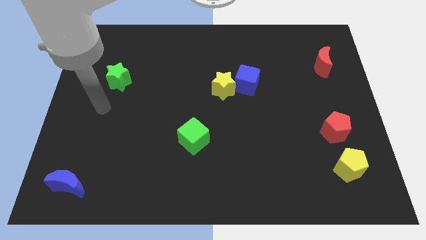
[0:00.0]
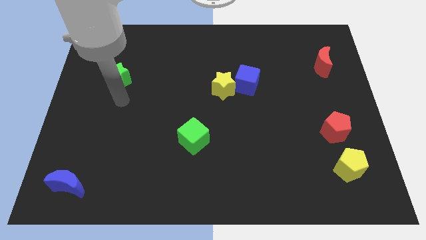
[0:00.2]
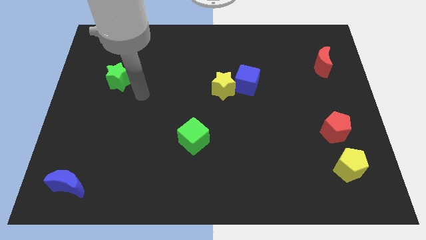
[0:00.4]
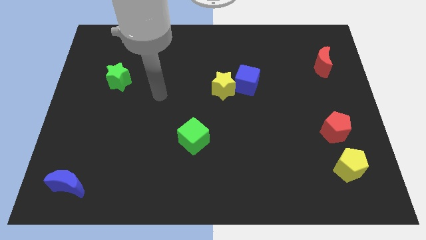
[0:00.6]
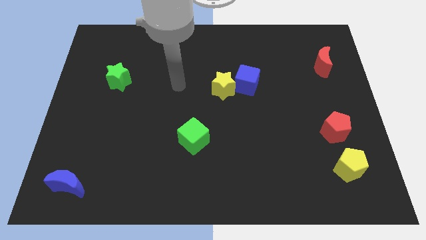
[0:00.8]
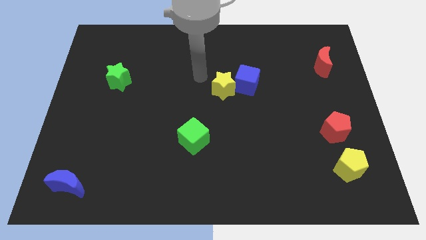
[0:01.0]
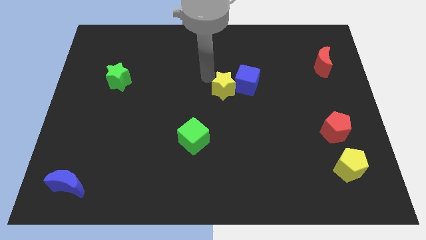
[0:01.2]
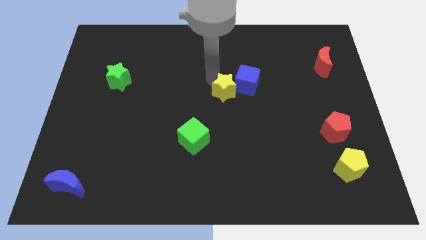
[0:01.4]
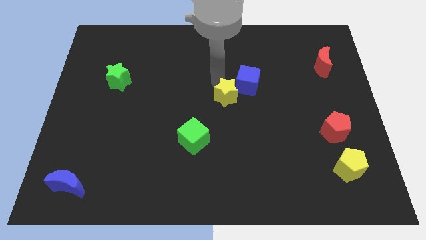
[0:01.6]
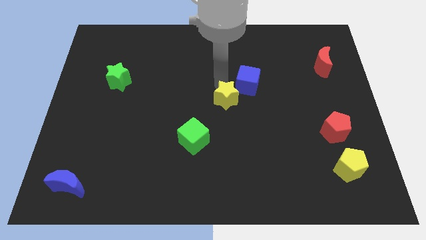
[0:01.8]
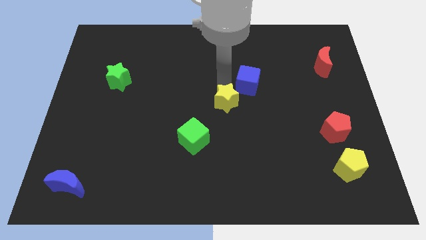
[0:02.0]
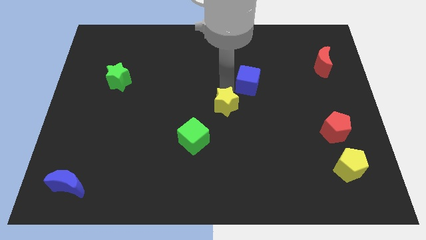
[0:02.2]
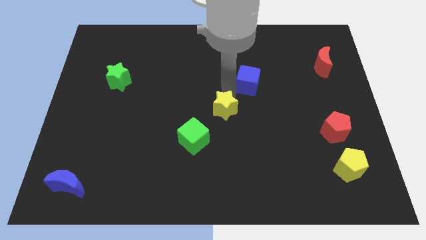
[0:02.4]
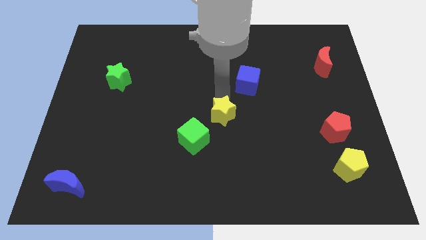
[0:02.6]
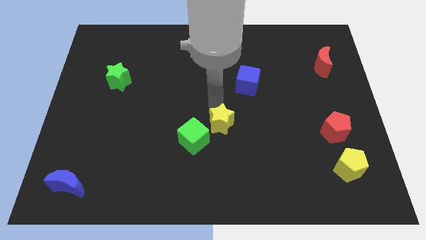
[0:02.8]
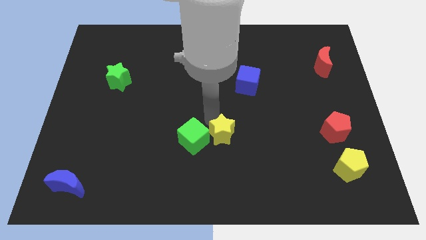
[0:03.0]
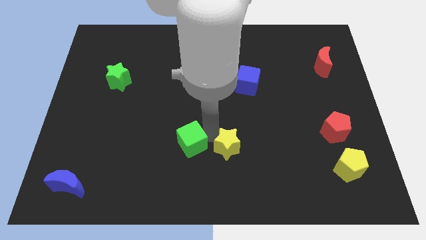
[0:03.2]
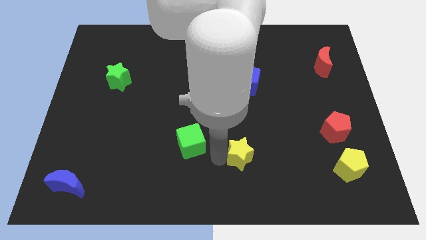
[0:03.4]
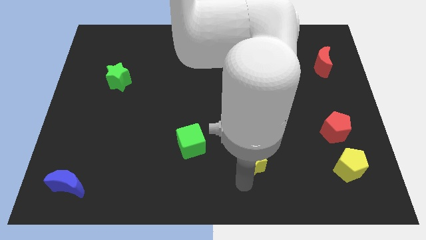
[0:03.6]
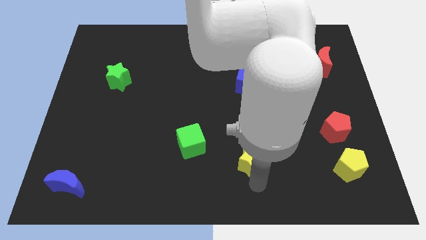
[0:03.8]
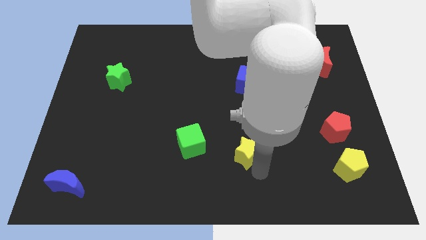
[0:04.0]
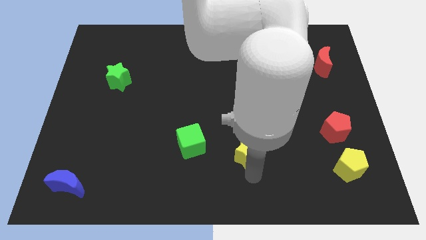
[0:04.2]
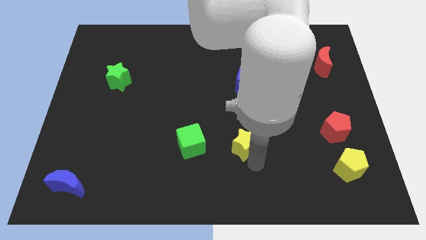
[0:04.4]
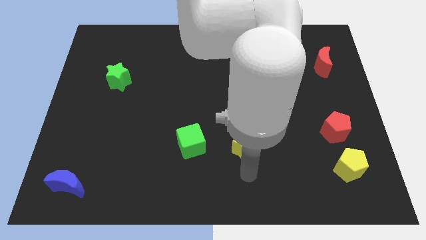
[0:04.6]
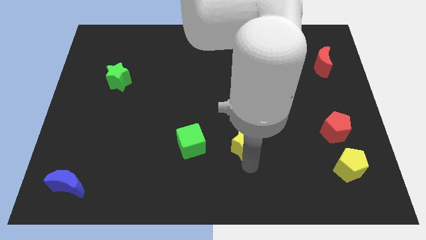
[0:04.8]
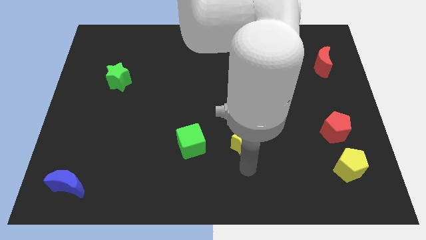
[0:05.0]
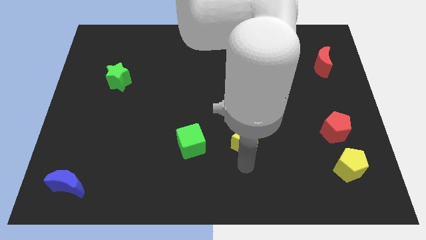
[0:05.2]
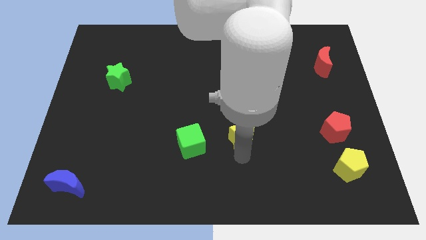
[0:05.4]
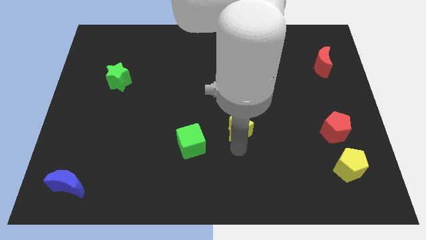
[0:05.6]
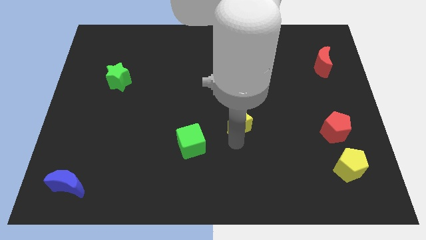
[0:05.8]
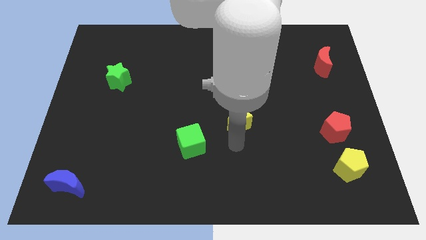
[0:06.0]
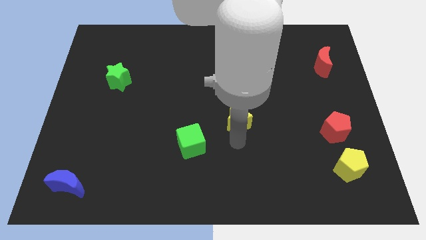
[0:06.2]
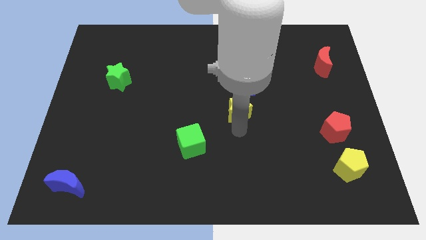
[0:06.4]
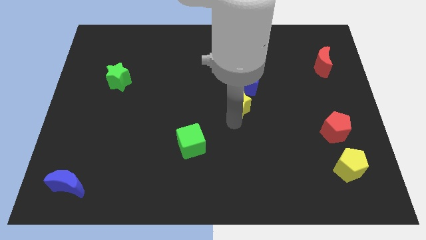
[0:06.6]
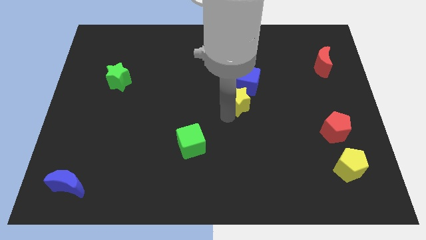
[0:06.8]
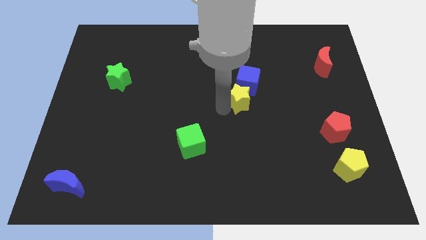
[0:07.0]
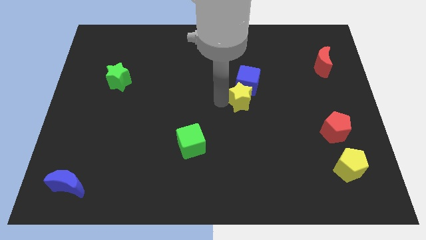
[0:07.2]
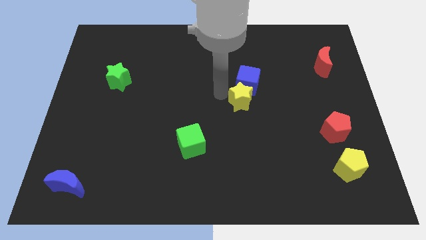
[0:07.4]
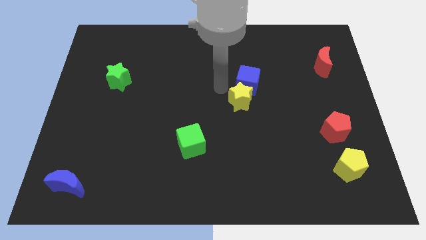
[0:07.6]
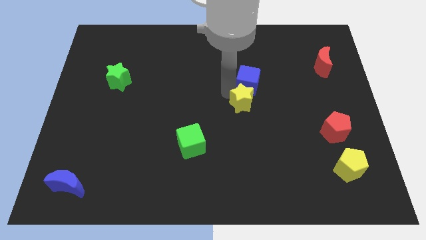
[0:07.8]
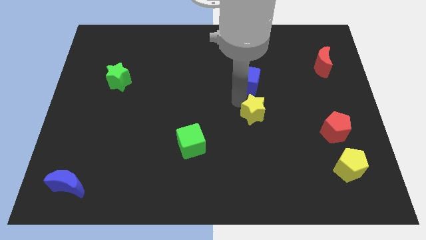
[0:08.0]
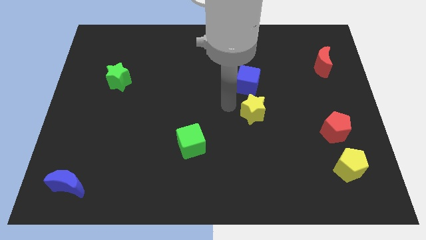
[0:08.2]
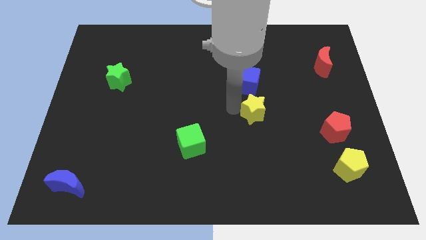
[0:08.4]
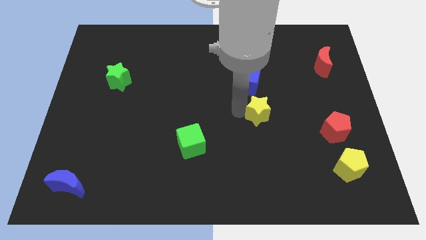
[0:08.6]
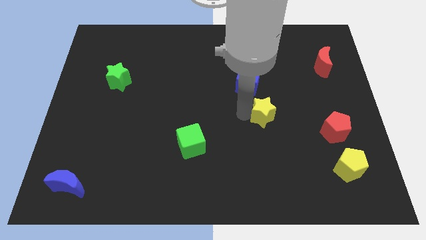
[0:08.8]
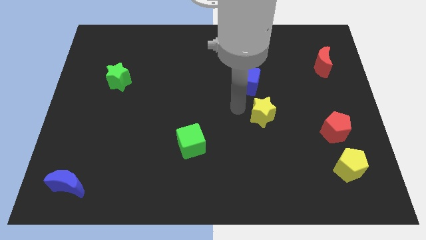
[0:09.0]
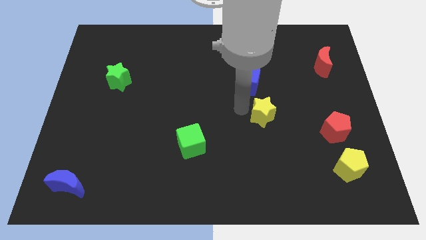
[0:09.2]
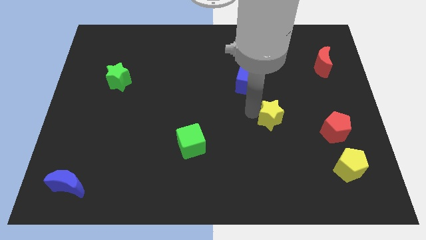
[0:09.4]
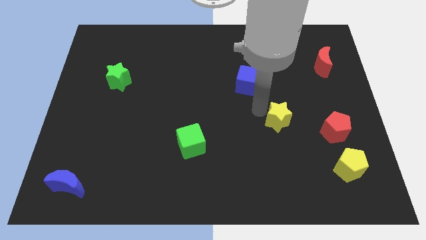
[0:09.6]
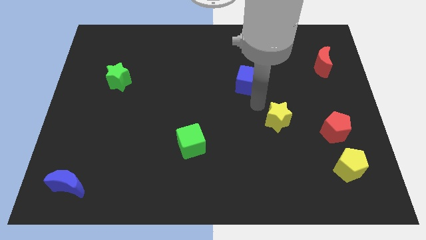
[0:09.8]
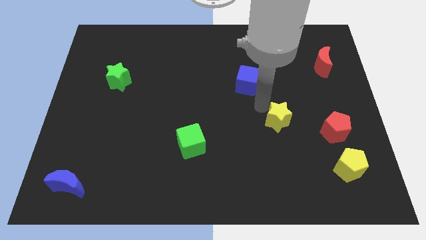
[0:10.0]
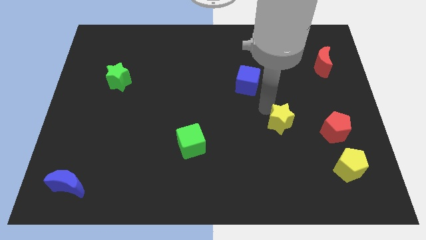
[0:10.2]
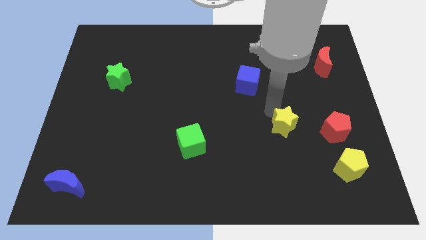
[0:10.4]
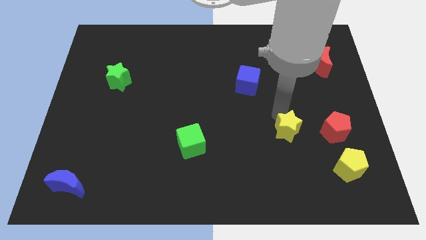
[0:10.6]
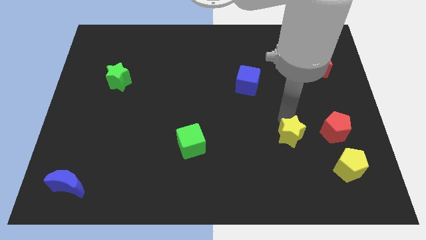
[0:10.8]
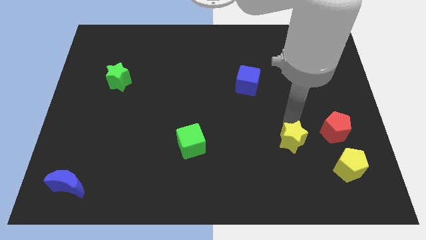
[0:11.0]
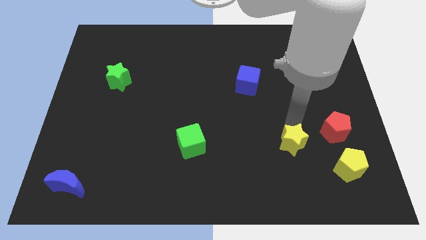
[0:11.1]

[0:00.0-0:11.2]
push the yellow star diagonally up and to the left of the yellow pentagon

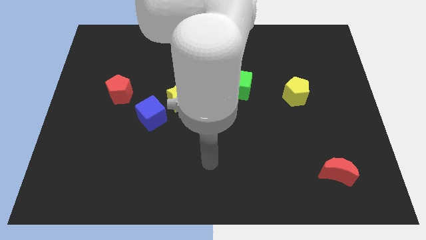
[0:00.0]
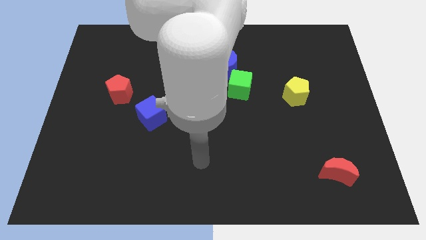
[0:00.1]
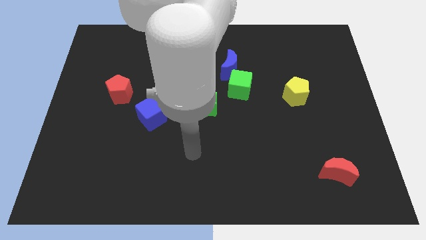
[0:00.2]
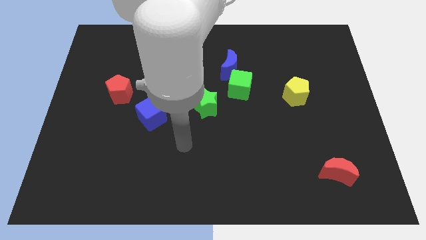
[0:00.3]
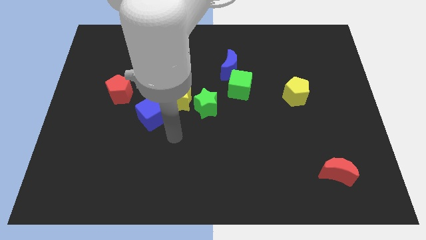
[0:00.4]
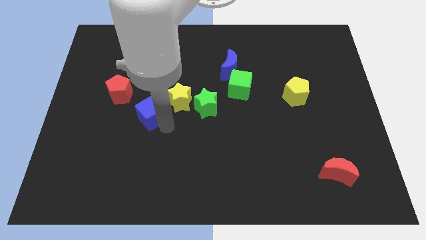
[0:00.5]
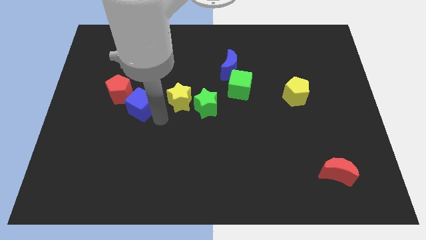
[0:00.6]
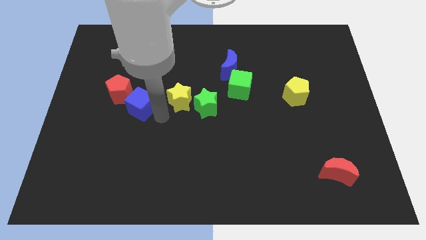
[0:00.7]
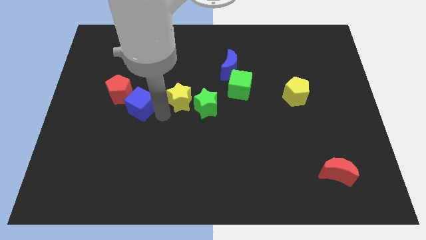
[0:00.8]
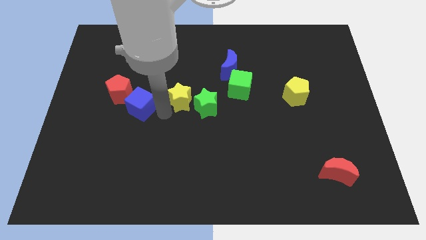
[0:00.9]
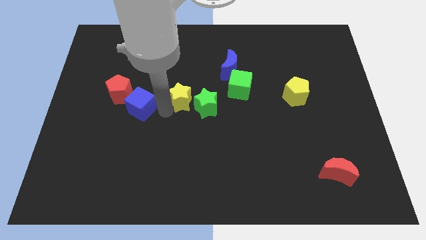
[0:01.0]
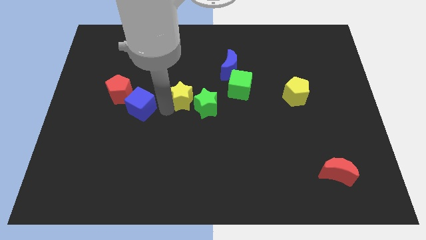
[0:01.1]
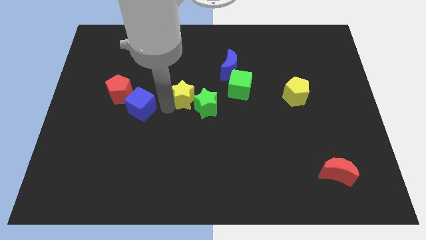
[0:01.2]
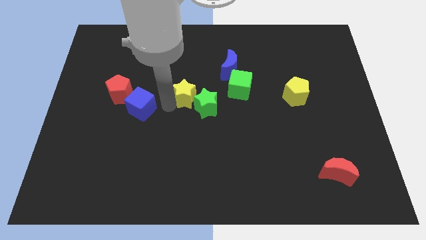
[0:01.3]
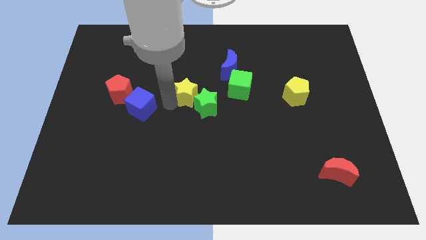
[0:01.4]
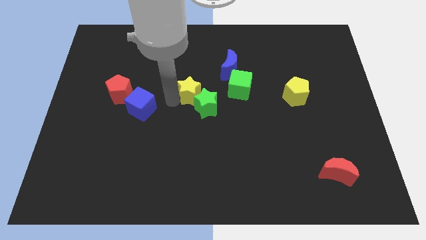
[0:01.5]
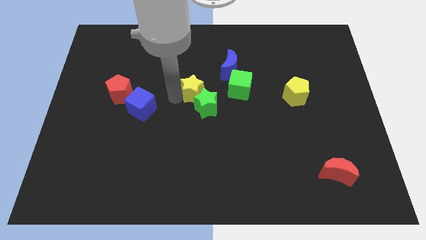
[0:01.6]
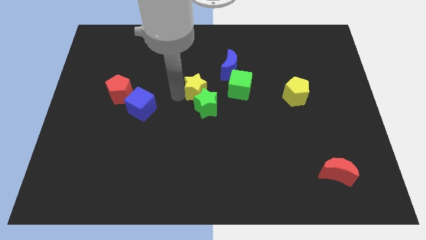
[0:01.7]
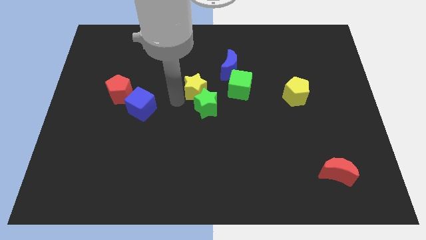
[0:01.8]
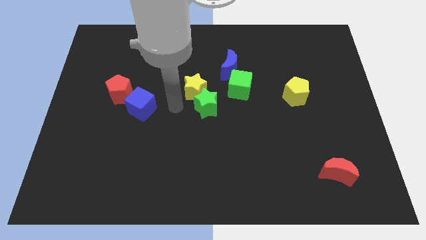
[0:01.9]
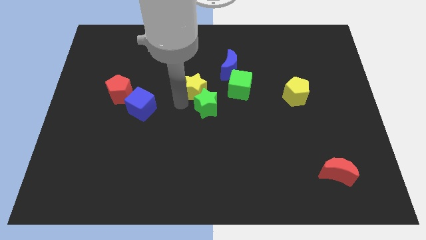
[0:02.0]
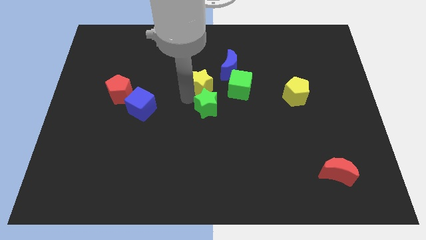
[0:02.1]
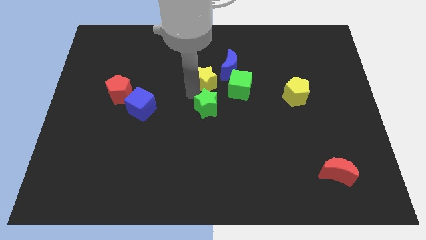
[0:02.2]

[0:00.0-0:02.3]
move the yellow star diagonally up and to the left of the green cube

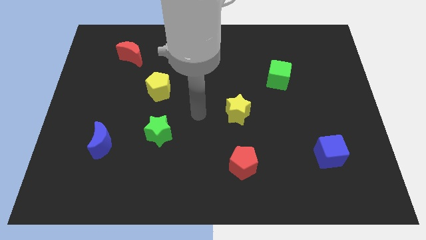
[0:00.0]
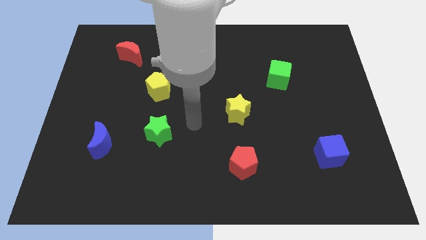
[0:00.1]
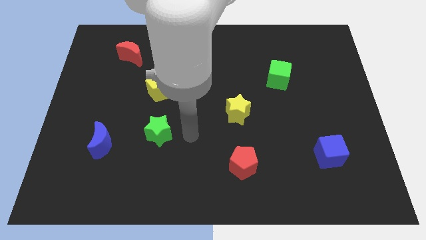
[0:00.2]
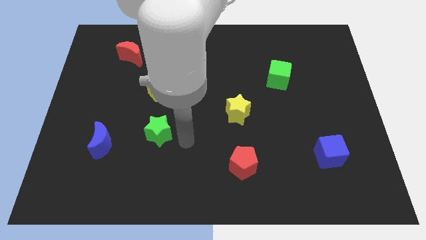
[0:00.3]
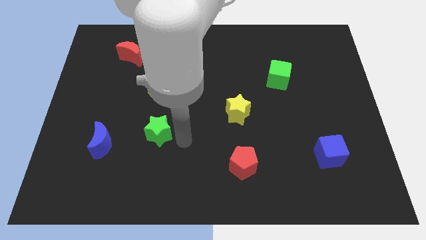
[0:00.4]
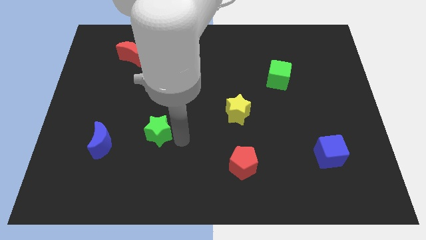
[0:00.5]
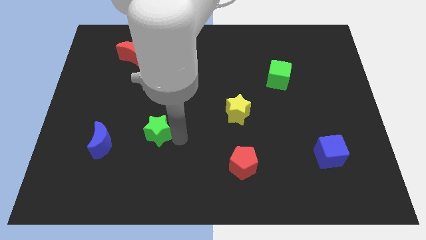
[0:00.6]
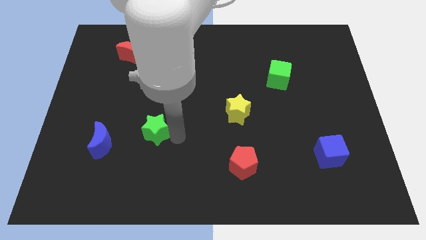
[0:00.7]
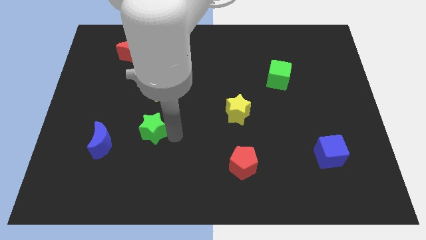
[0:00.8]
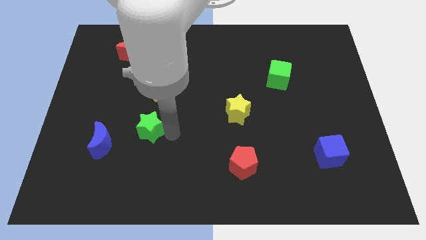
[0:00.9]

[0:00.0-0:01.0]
push the green star to the top right side of the blue moon
